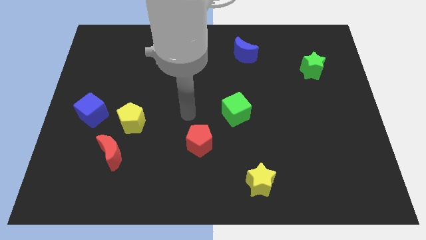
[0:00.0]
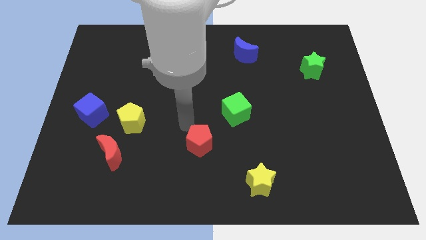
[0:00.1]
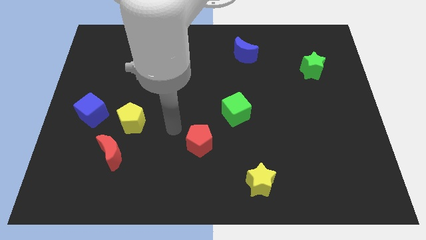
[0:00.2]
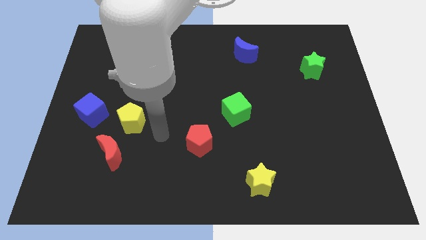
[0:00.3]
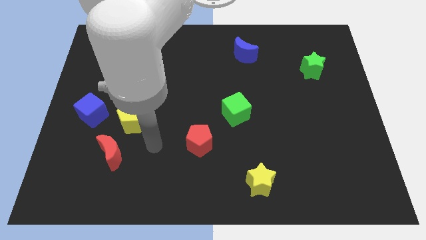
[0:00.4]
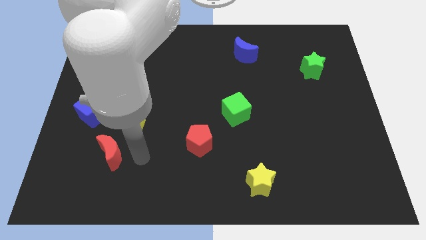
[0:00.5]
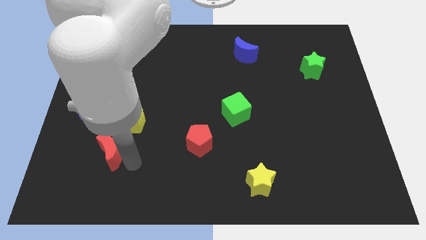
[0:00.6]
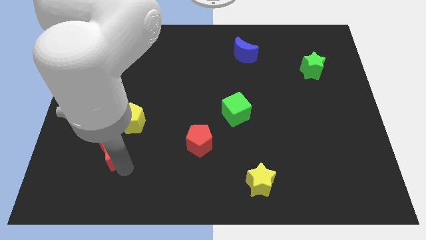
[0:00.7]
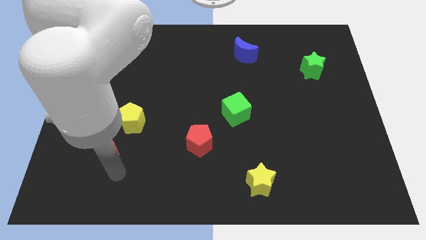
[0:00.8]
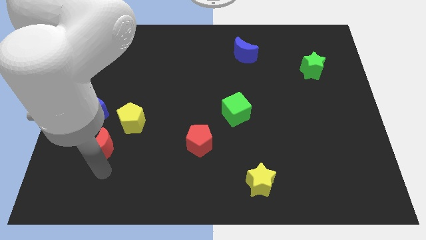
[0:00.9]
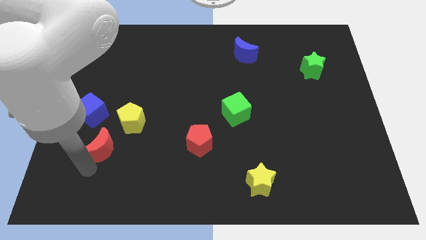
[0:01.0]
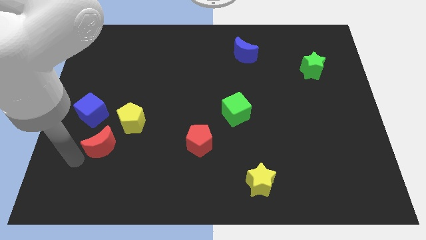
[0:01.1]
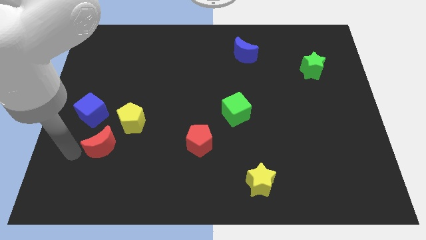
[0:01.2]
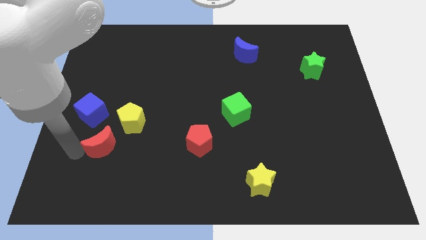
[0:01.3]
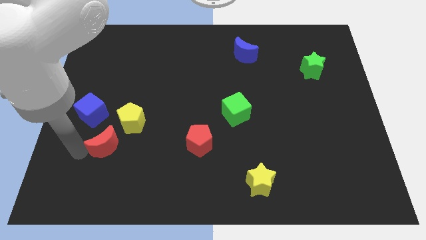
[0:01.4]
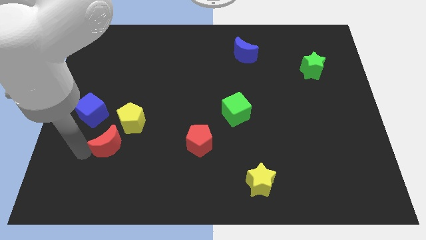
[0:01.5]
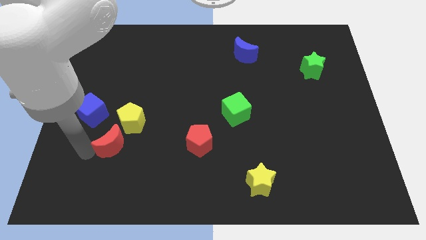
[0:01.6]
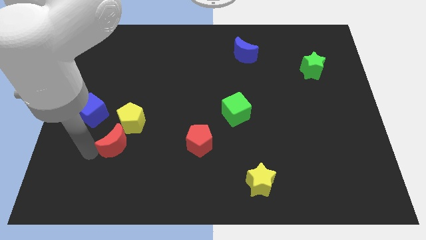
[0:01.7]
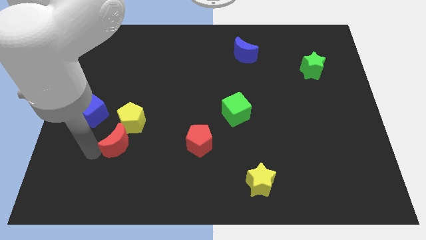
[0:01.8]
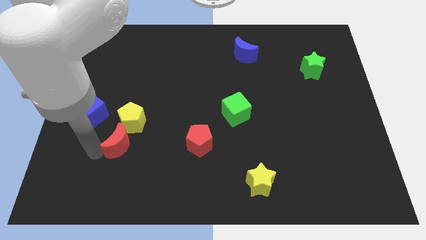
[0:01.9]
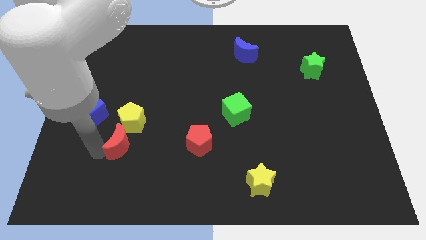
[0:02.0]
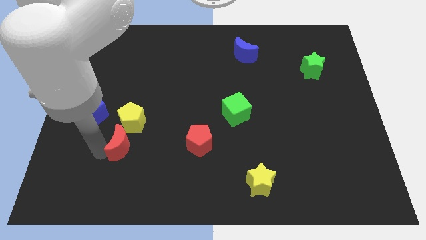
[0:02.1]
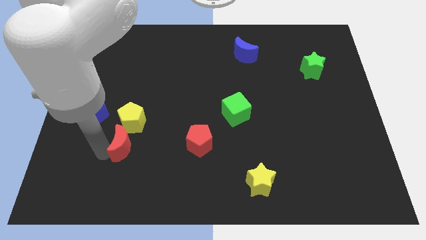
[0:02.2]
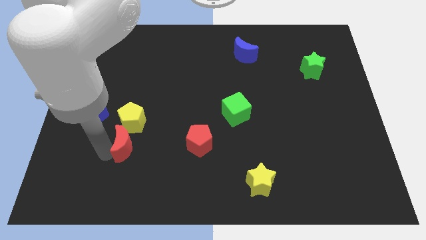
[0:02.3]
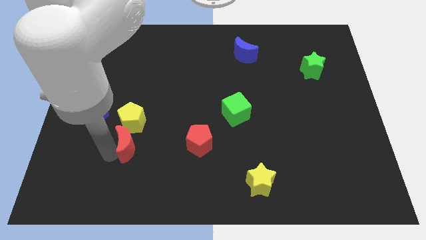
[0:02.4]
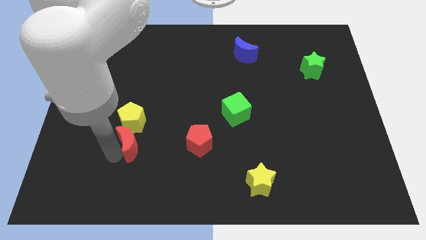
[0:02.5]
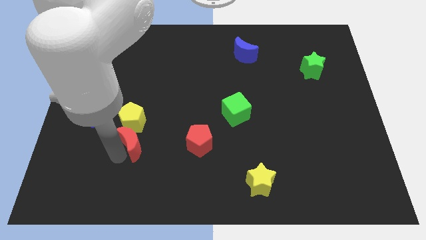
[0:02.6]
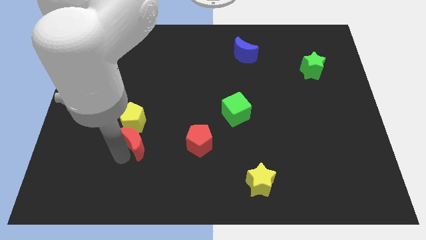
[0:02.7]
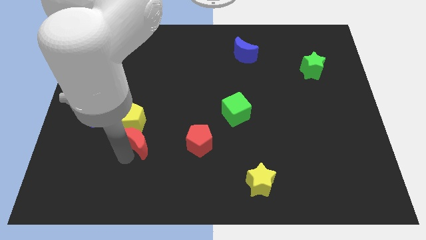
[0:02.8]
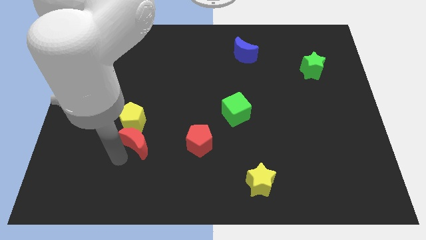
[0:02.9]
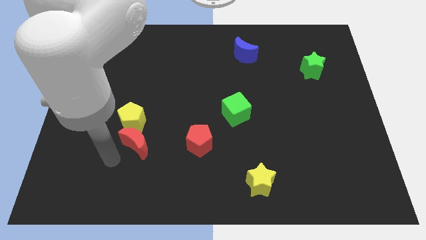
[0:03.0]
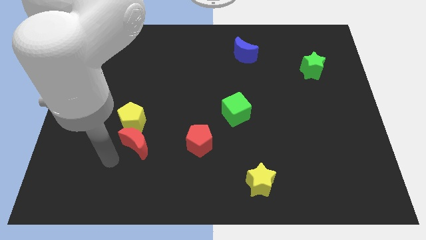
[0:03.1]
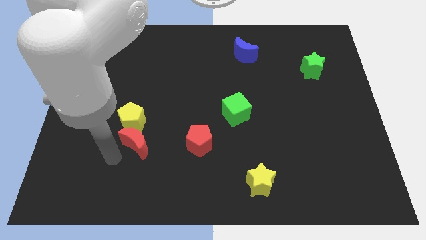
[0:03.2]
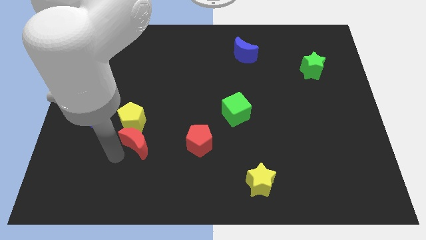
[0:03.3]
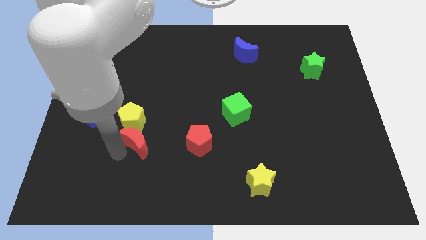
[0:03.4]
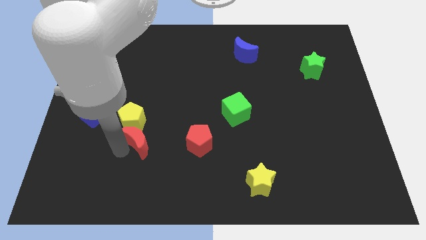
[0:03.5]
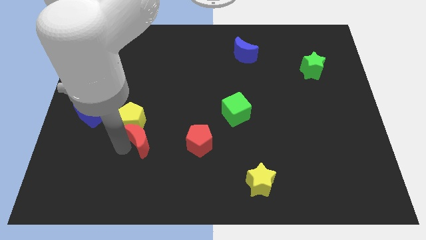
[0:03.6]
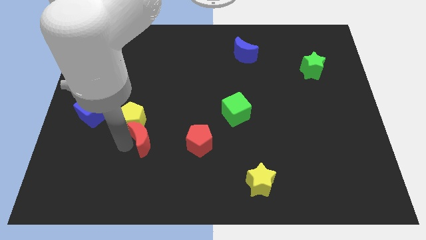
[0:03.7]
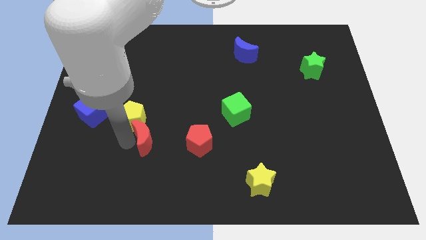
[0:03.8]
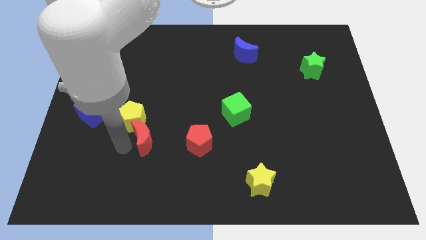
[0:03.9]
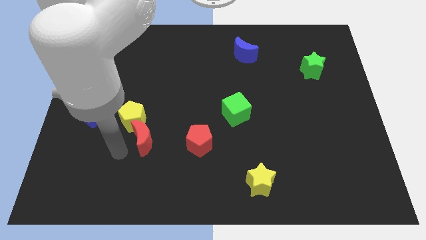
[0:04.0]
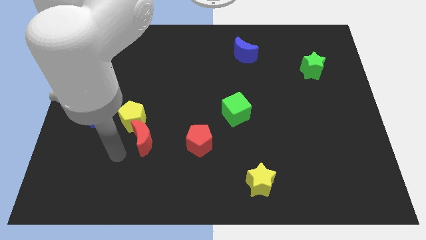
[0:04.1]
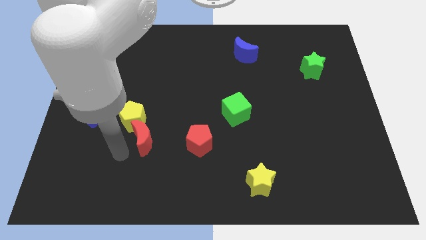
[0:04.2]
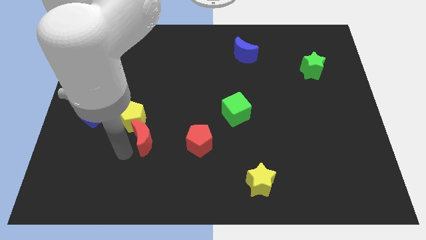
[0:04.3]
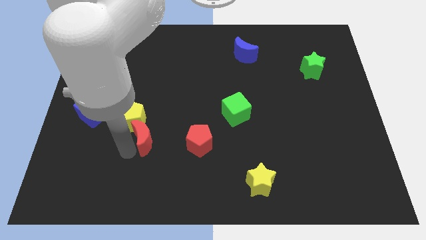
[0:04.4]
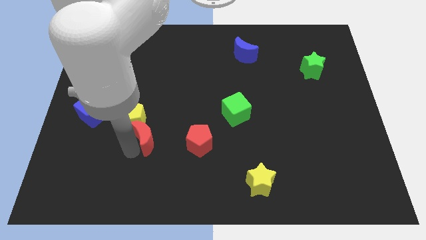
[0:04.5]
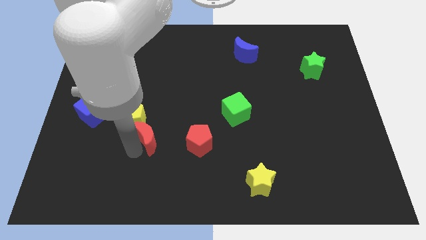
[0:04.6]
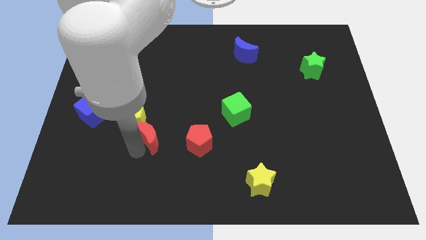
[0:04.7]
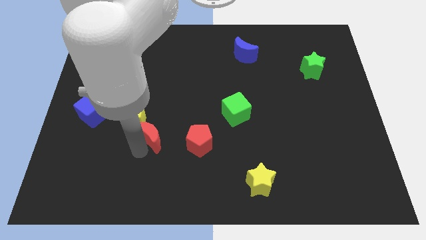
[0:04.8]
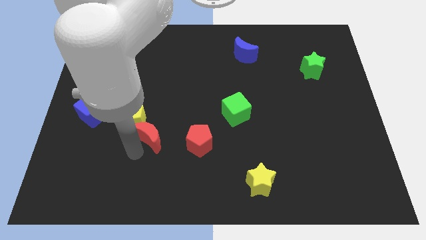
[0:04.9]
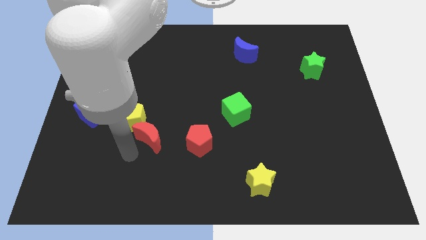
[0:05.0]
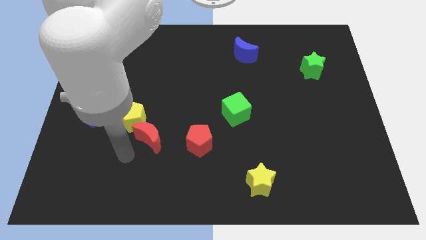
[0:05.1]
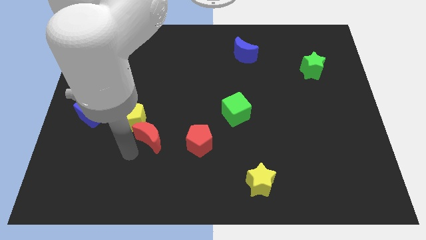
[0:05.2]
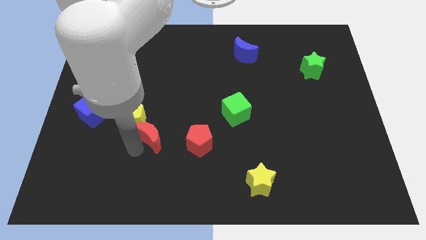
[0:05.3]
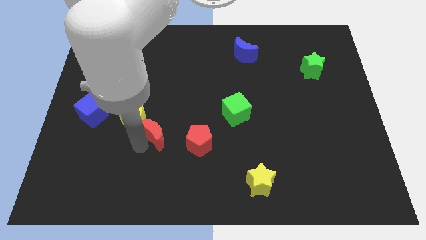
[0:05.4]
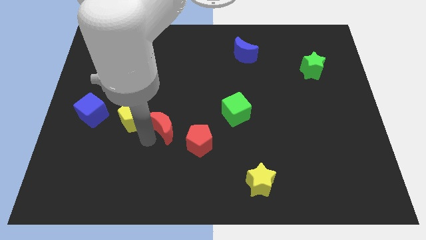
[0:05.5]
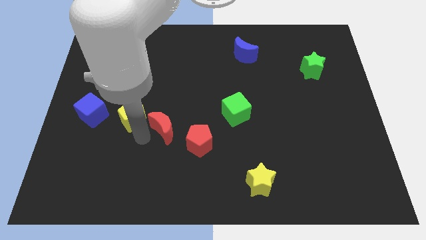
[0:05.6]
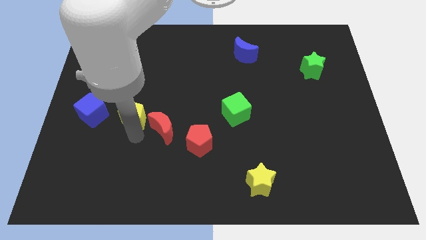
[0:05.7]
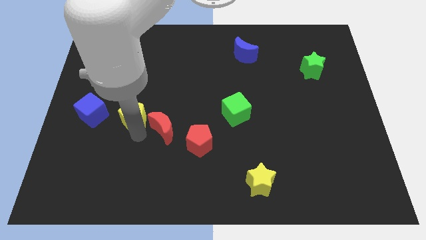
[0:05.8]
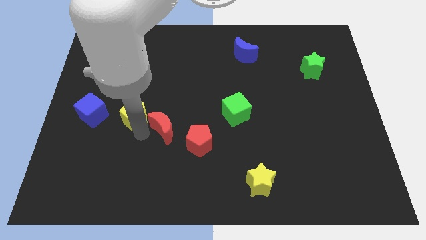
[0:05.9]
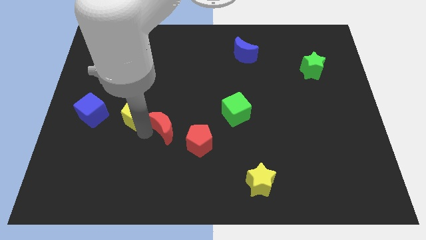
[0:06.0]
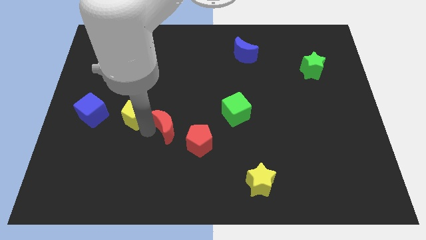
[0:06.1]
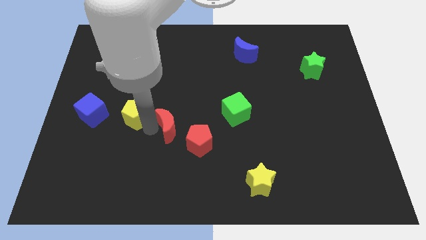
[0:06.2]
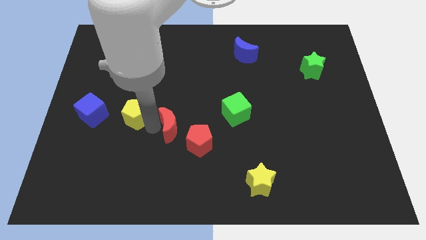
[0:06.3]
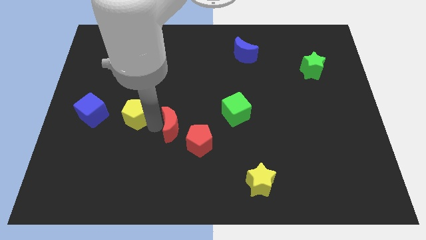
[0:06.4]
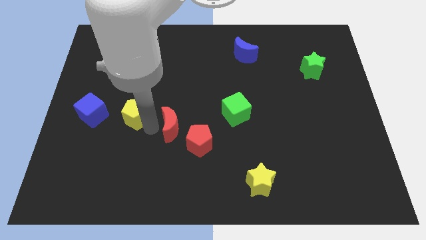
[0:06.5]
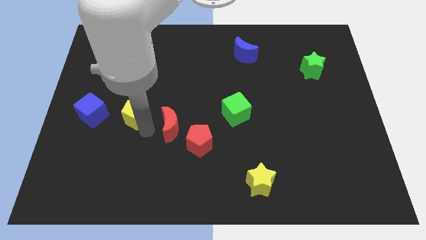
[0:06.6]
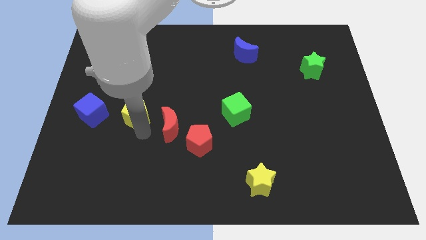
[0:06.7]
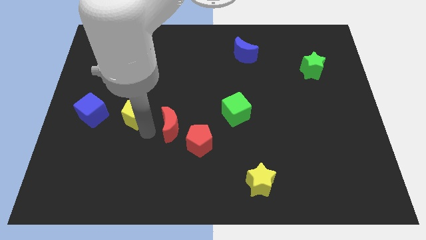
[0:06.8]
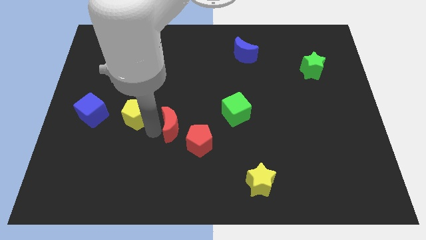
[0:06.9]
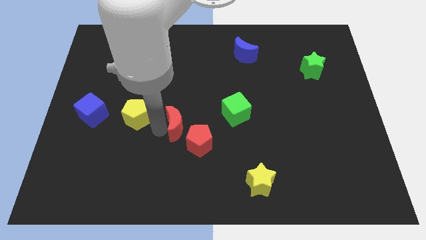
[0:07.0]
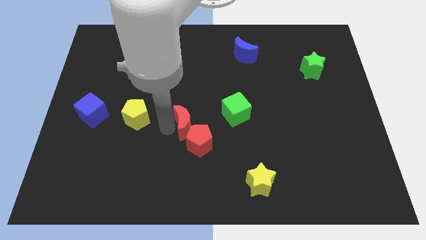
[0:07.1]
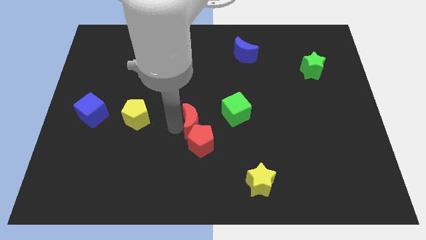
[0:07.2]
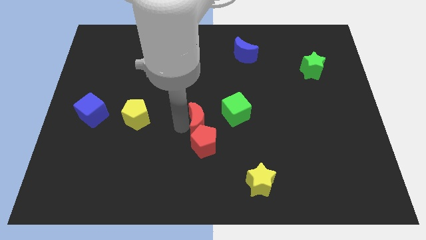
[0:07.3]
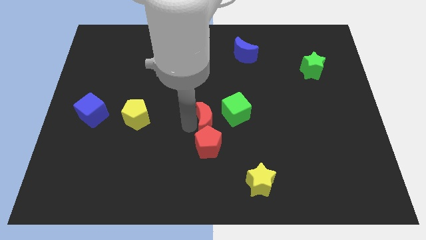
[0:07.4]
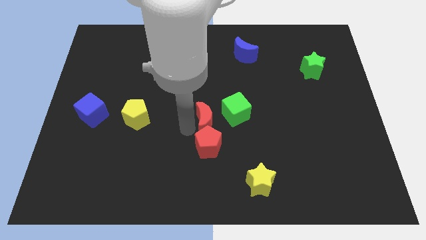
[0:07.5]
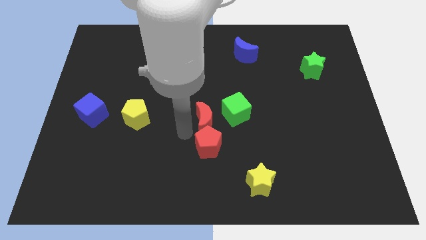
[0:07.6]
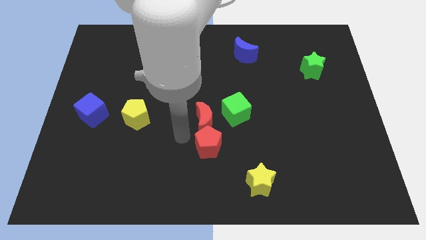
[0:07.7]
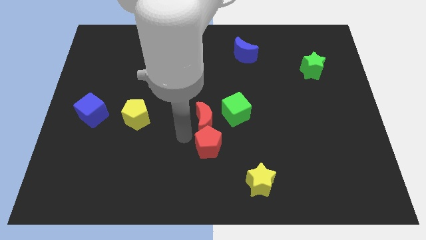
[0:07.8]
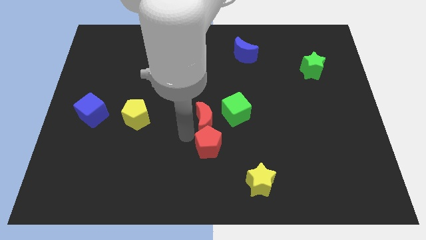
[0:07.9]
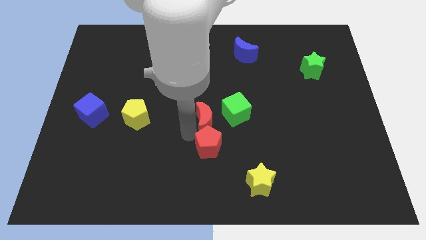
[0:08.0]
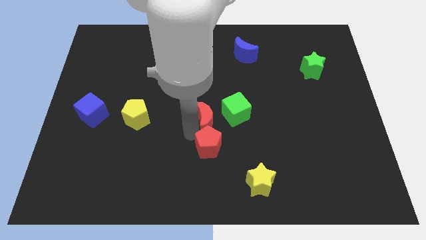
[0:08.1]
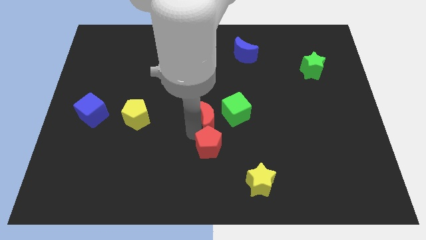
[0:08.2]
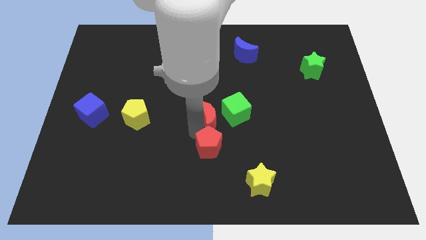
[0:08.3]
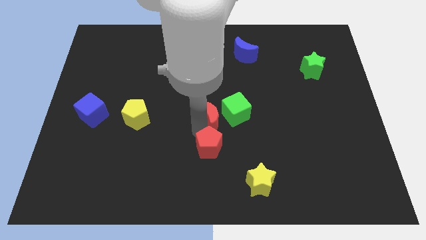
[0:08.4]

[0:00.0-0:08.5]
put the red moon towards the green cube
